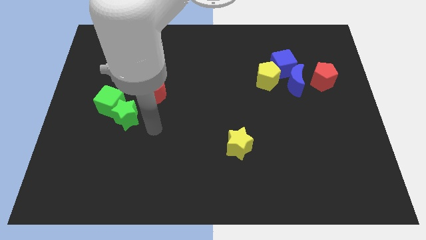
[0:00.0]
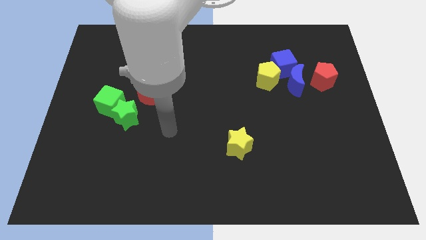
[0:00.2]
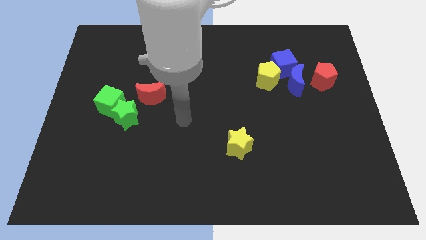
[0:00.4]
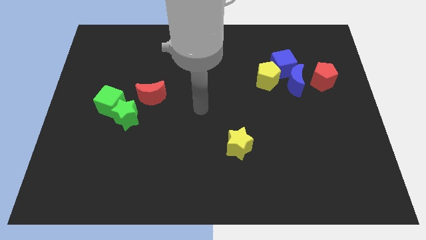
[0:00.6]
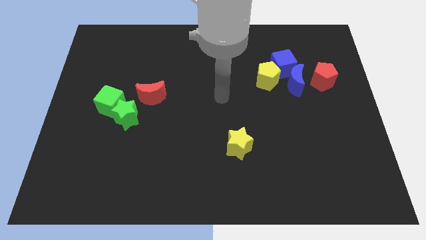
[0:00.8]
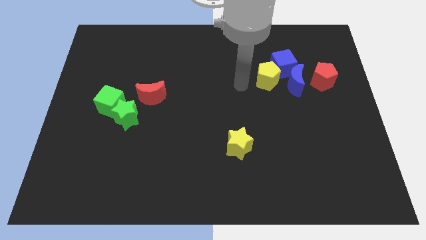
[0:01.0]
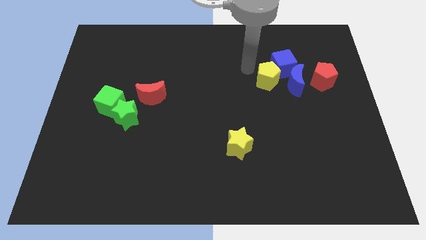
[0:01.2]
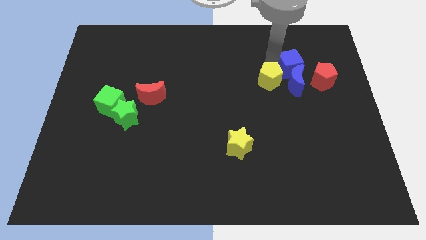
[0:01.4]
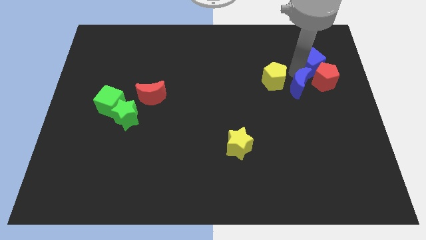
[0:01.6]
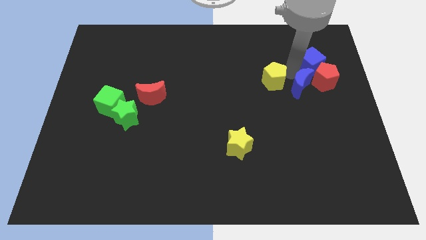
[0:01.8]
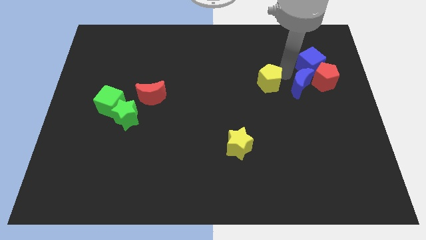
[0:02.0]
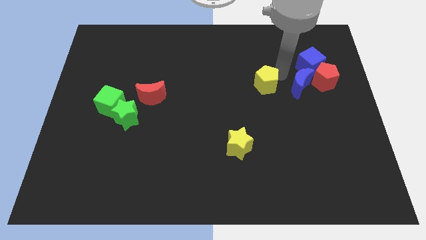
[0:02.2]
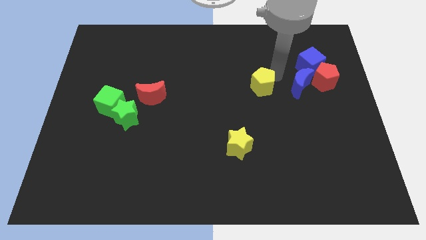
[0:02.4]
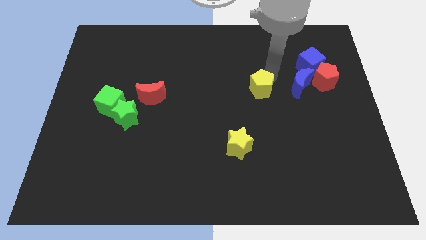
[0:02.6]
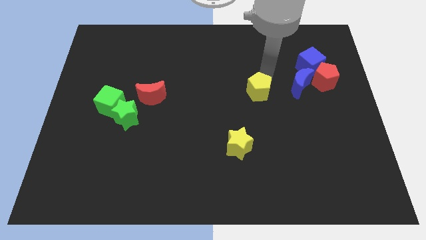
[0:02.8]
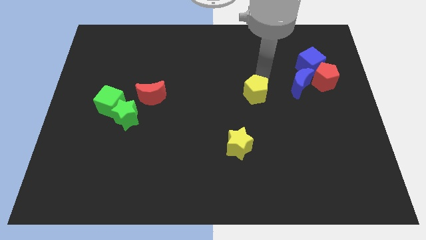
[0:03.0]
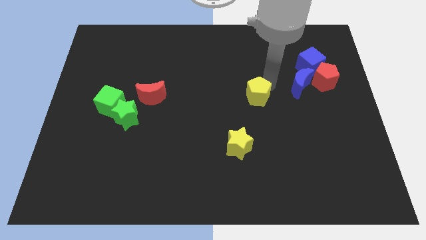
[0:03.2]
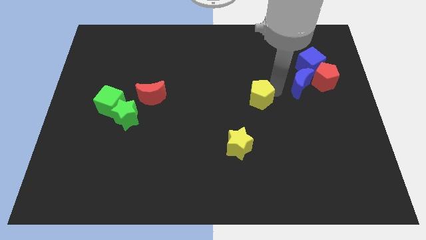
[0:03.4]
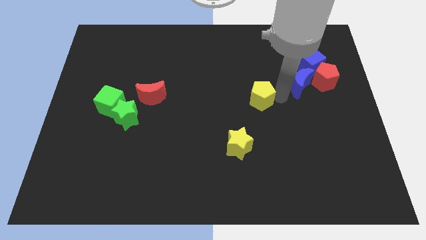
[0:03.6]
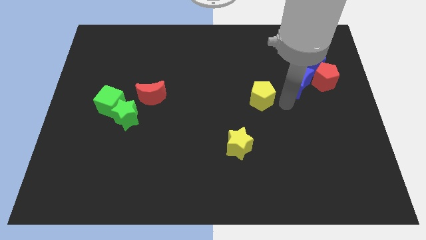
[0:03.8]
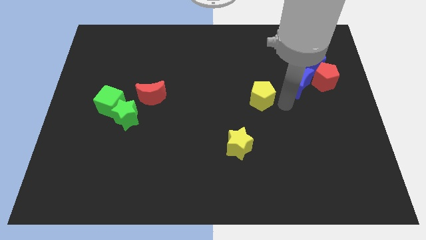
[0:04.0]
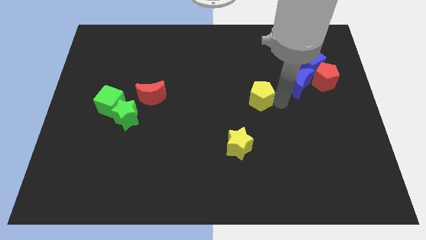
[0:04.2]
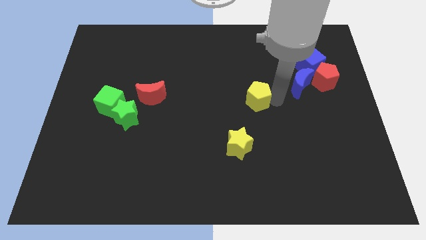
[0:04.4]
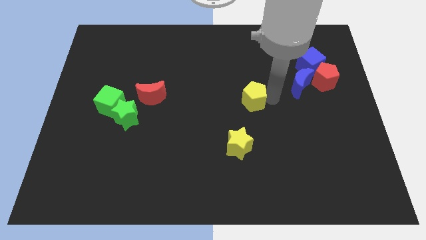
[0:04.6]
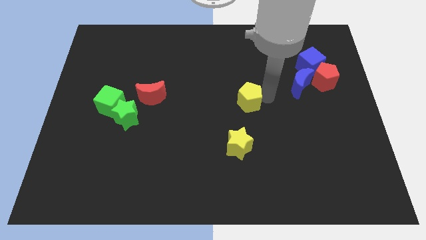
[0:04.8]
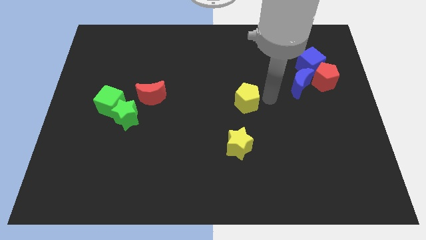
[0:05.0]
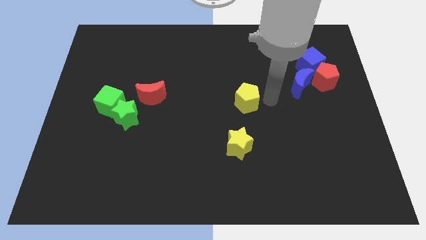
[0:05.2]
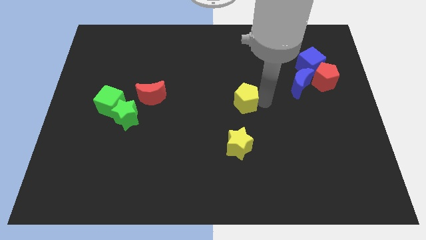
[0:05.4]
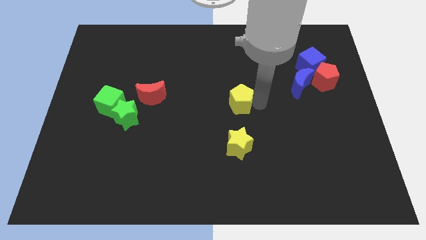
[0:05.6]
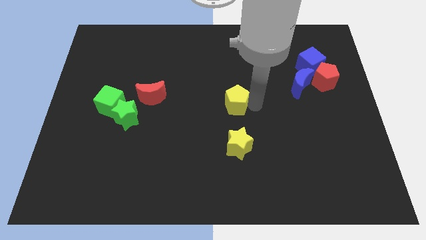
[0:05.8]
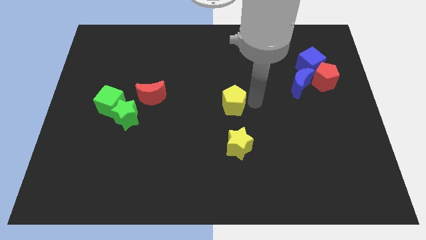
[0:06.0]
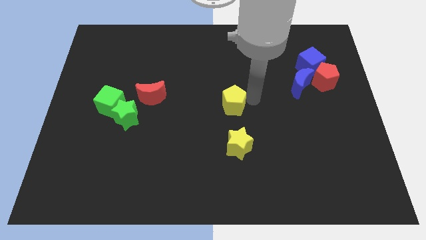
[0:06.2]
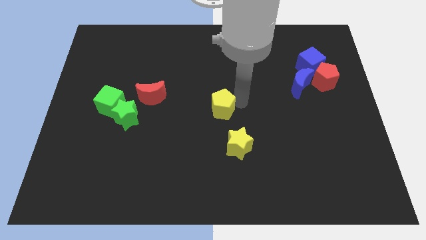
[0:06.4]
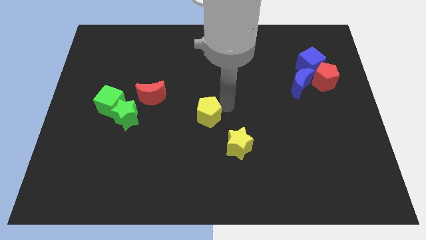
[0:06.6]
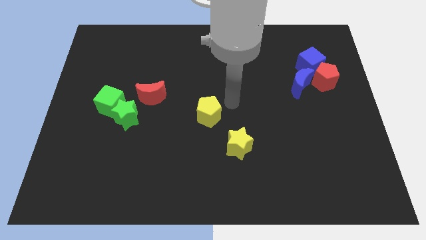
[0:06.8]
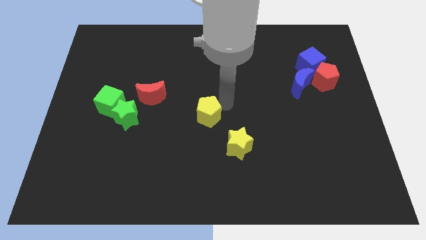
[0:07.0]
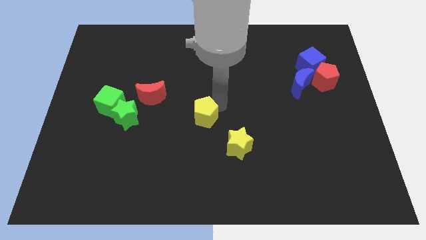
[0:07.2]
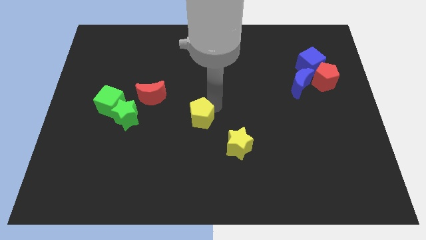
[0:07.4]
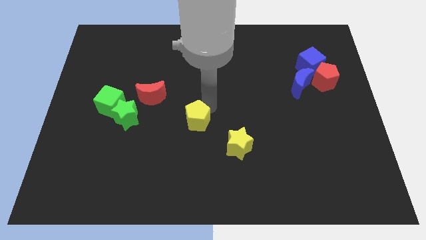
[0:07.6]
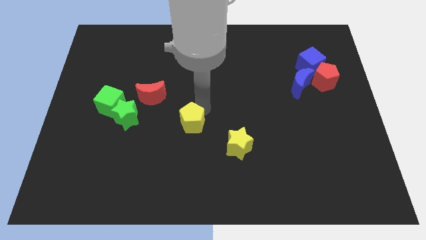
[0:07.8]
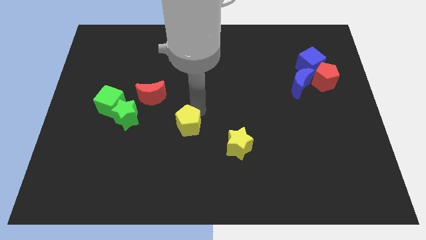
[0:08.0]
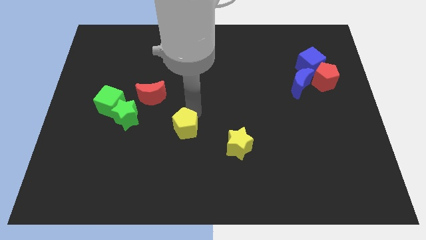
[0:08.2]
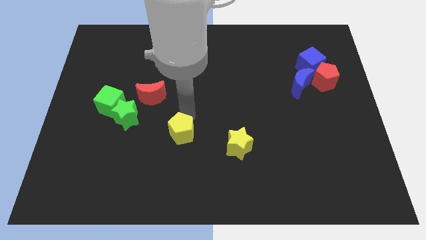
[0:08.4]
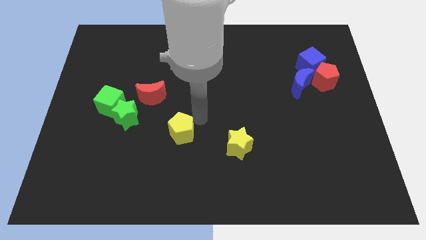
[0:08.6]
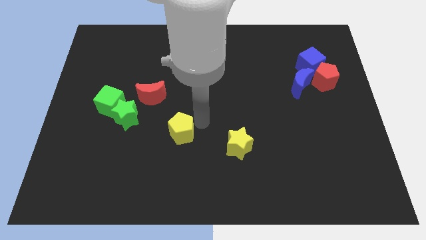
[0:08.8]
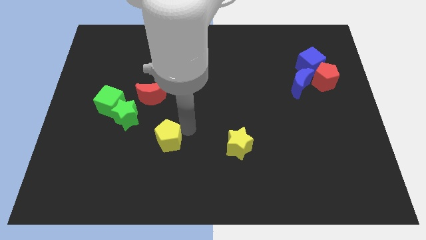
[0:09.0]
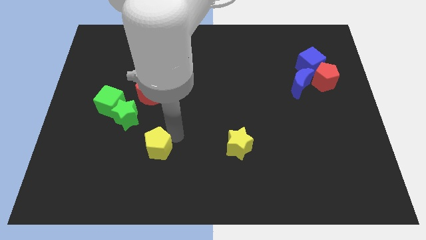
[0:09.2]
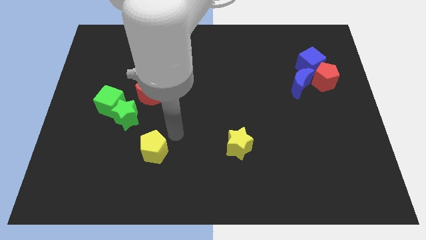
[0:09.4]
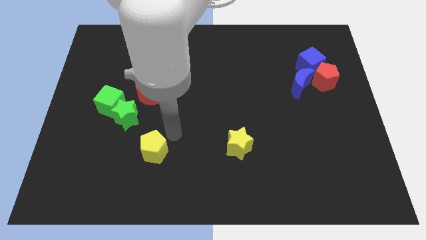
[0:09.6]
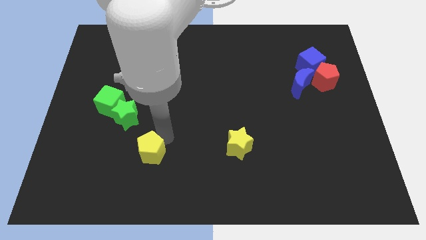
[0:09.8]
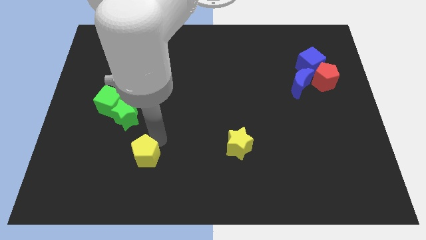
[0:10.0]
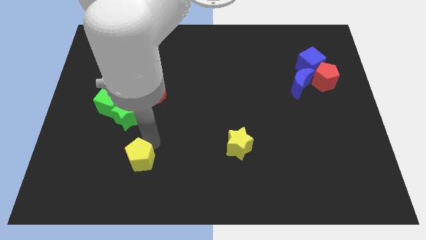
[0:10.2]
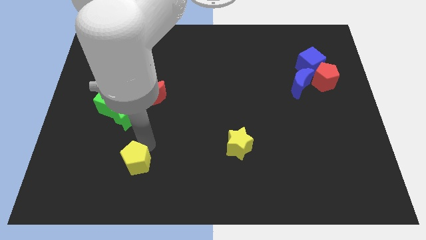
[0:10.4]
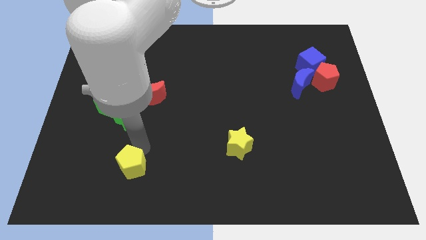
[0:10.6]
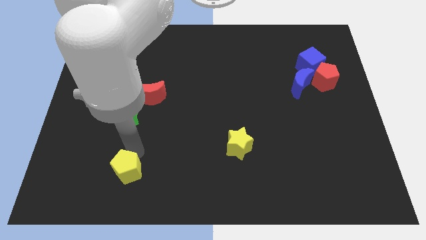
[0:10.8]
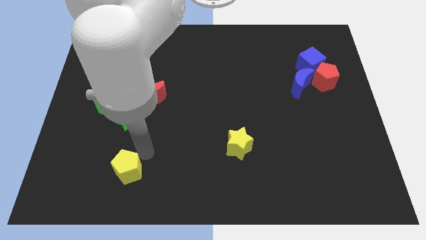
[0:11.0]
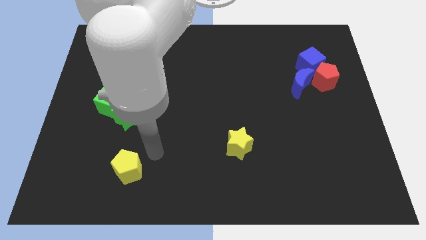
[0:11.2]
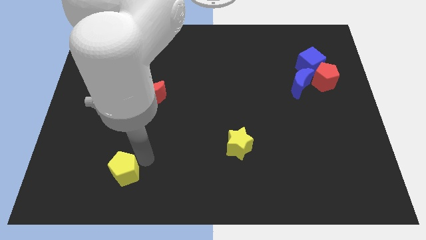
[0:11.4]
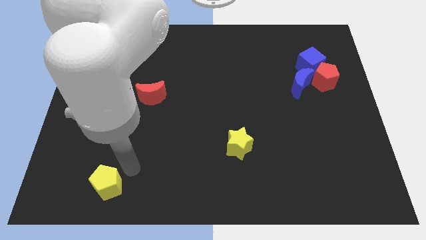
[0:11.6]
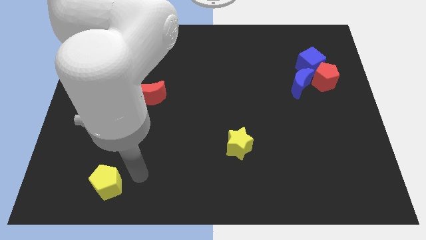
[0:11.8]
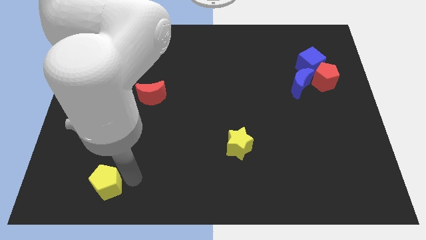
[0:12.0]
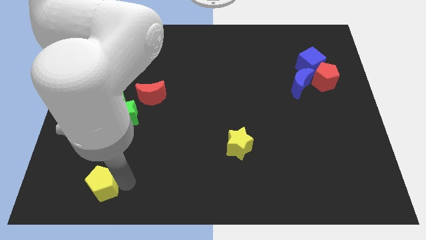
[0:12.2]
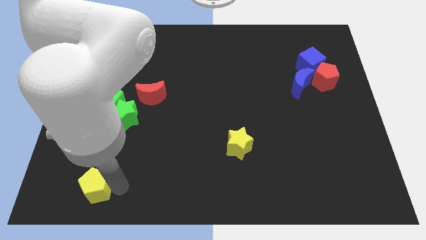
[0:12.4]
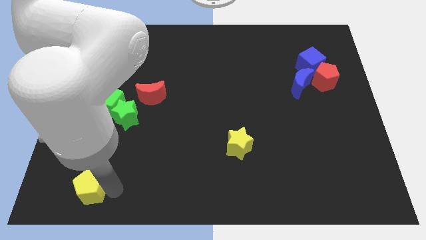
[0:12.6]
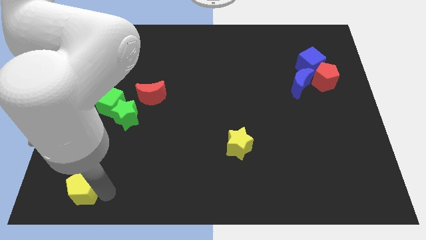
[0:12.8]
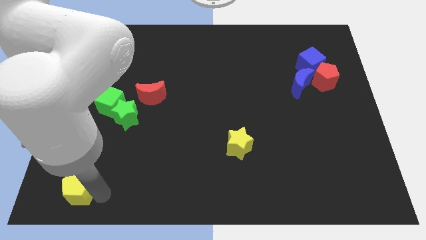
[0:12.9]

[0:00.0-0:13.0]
slide the yellow pentagon to the lower left corner

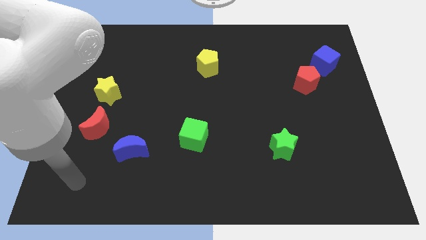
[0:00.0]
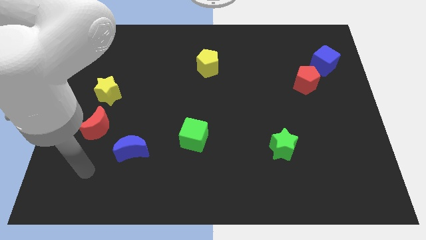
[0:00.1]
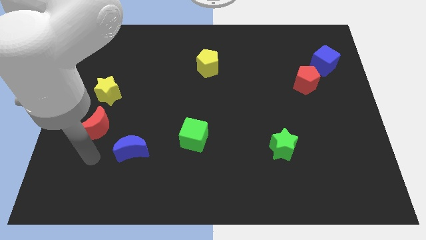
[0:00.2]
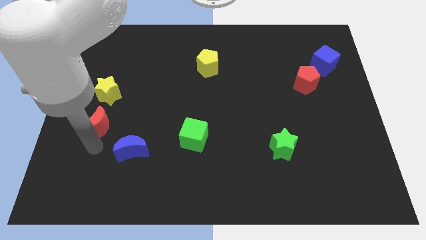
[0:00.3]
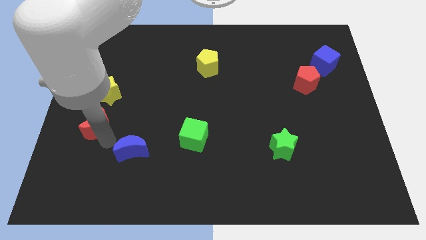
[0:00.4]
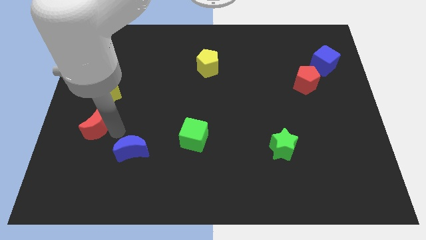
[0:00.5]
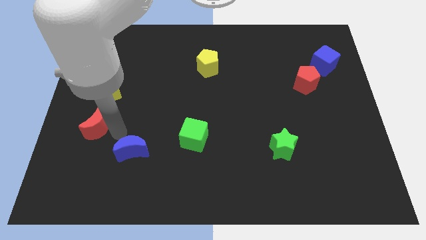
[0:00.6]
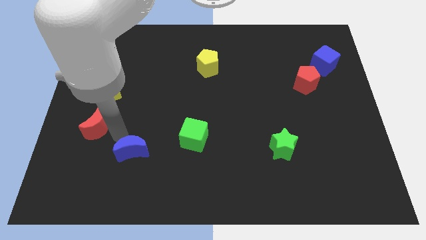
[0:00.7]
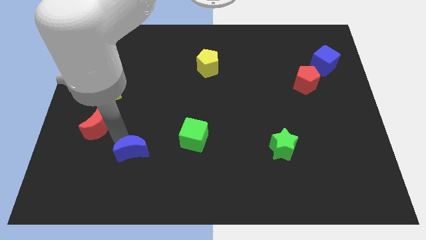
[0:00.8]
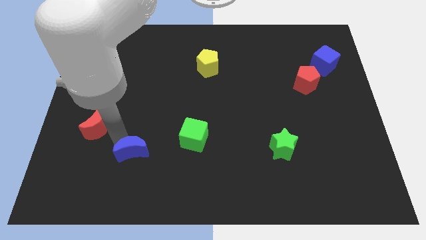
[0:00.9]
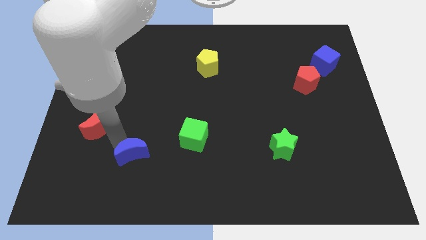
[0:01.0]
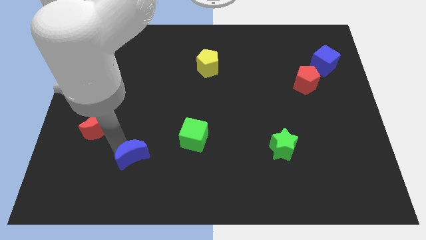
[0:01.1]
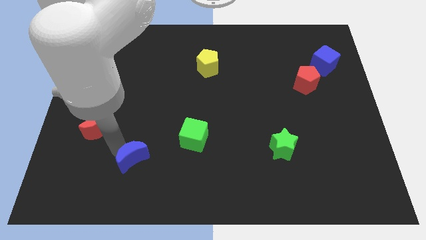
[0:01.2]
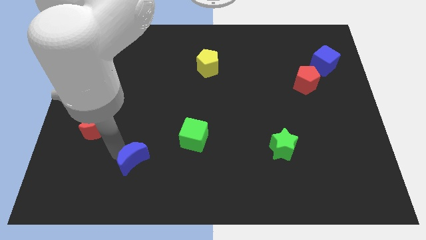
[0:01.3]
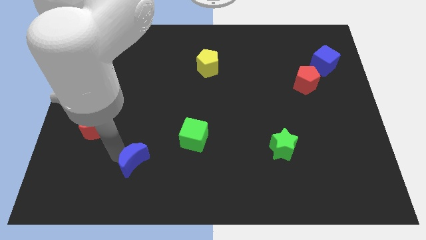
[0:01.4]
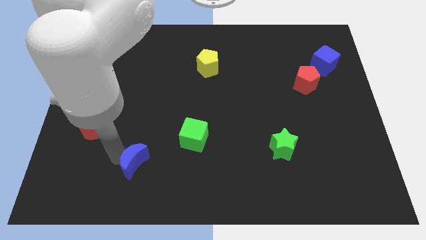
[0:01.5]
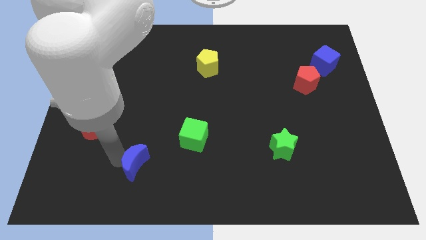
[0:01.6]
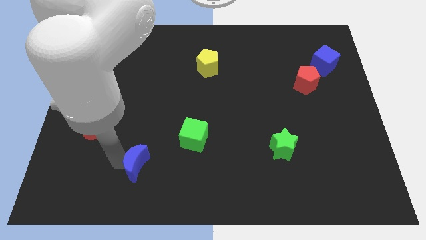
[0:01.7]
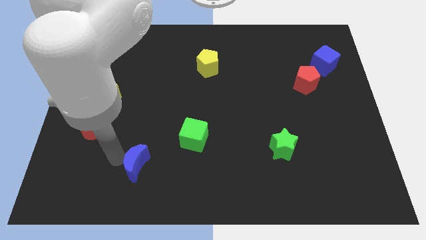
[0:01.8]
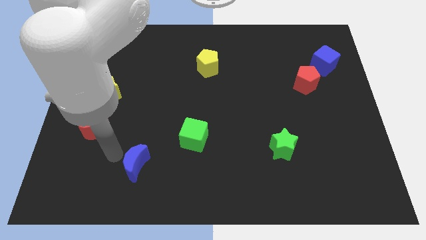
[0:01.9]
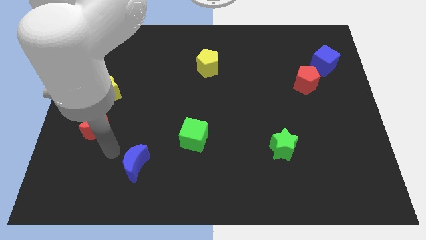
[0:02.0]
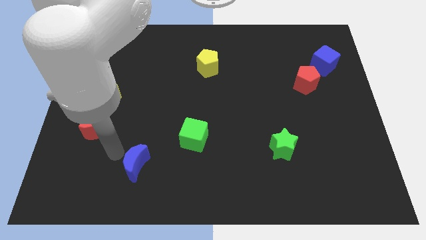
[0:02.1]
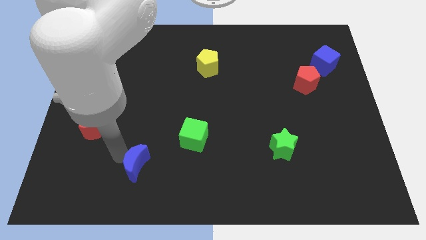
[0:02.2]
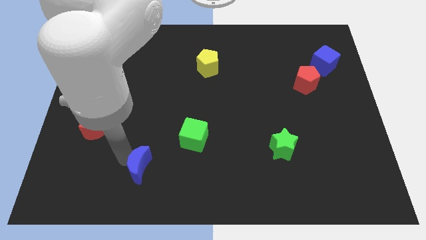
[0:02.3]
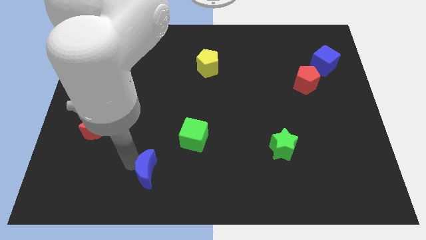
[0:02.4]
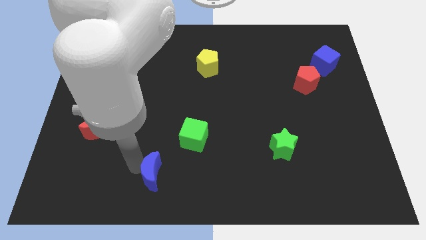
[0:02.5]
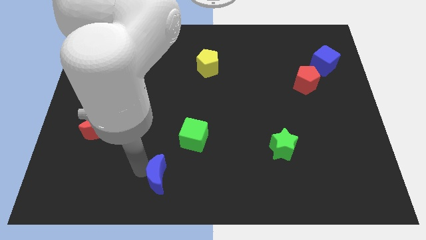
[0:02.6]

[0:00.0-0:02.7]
move the blue moon to the bottom
